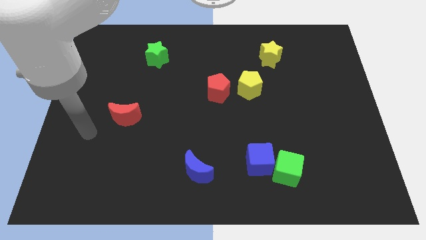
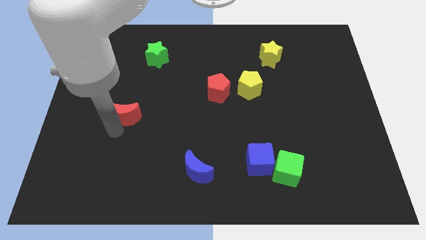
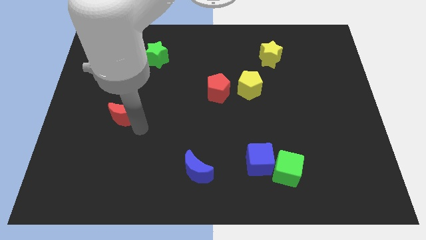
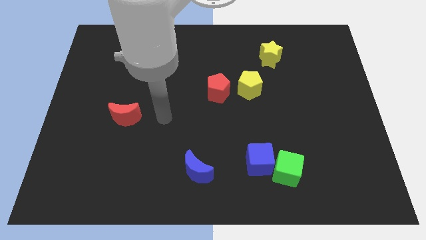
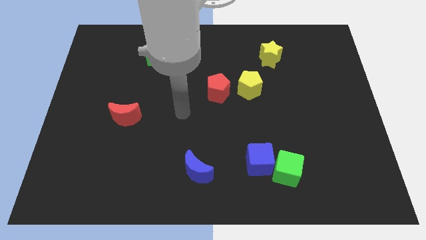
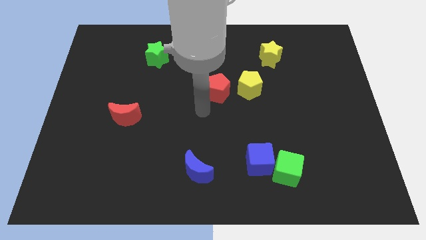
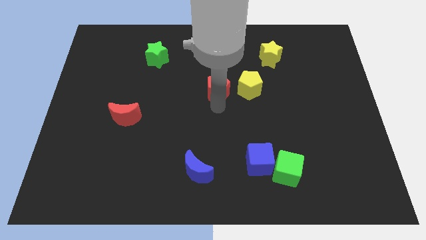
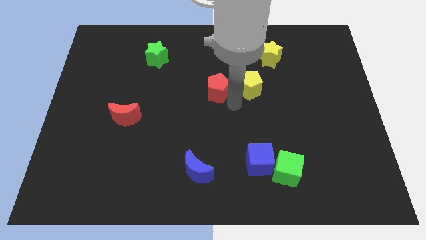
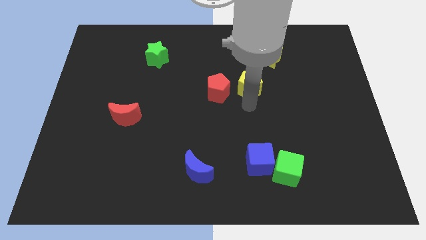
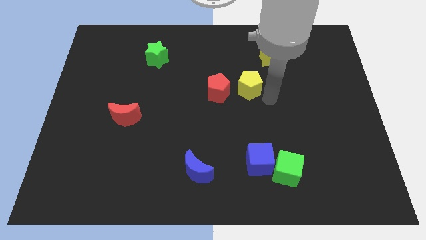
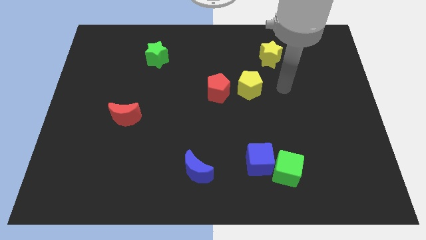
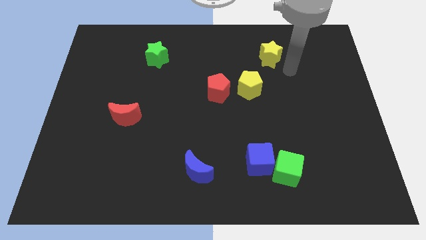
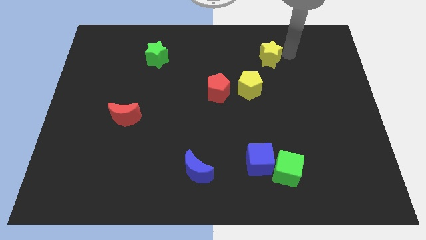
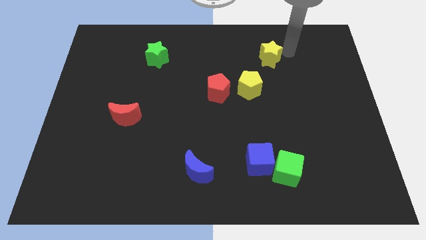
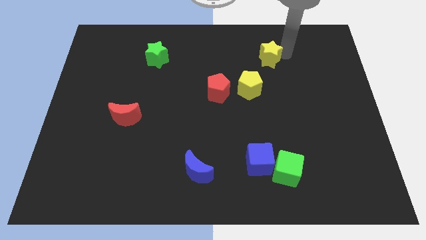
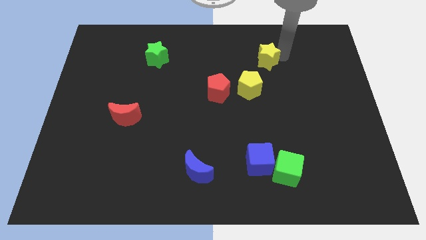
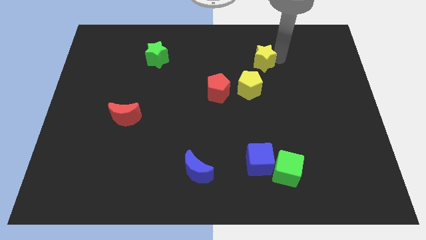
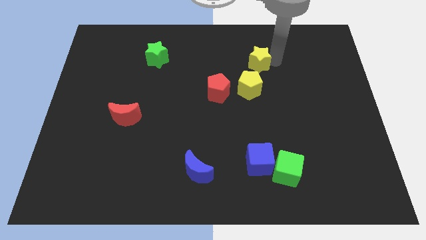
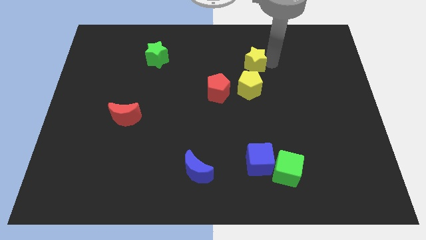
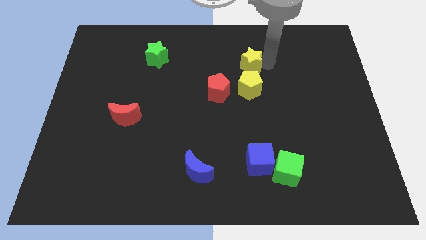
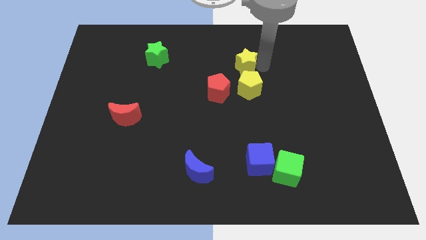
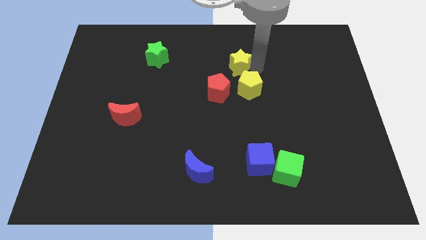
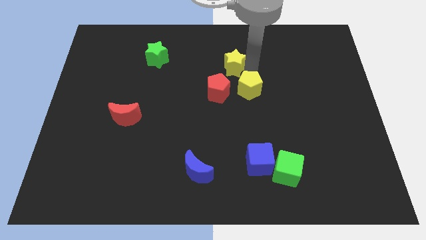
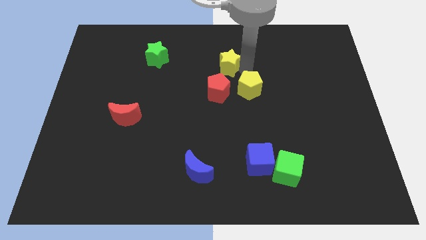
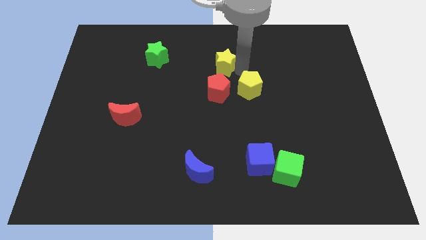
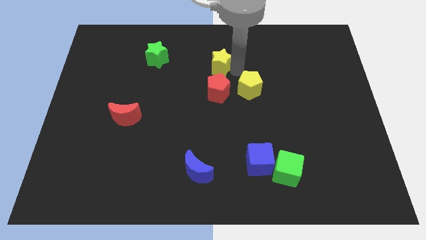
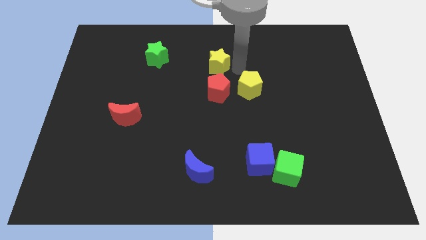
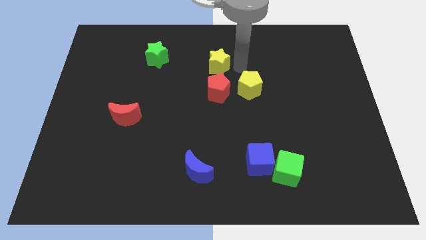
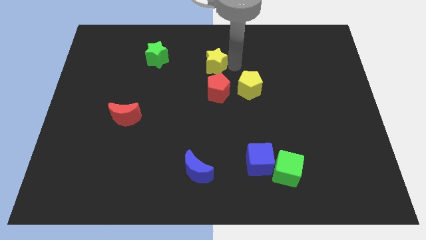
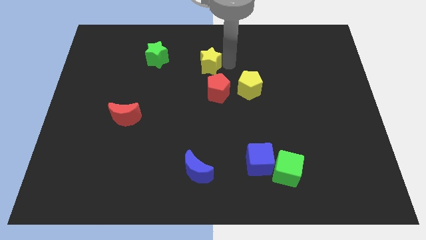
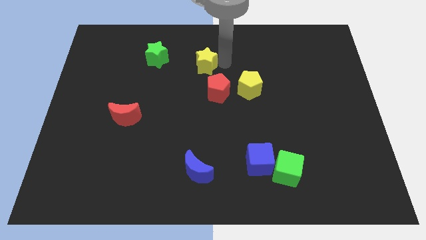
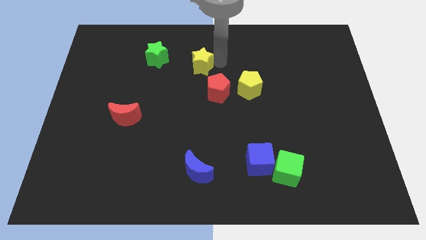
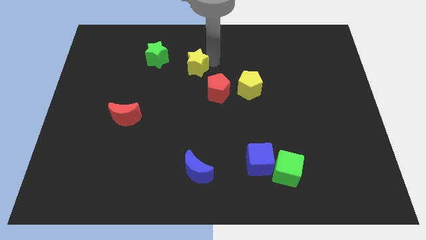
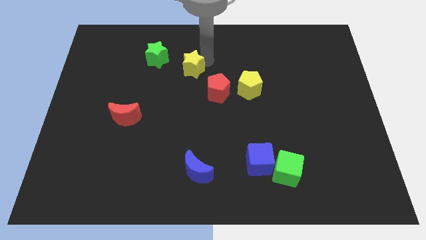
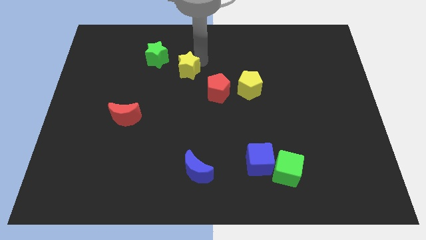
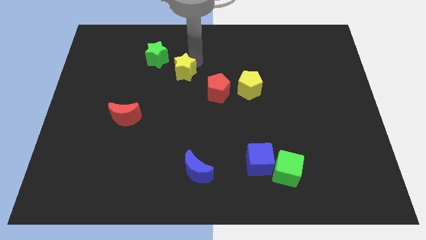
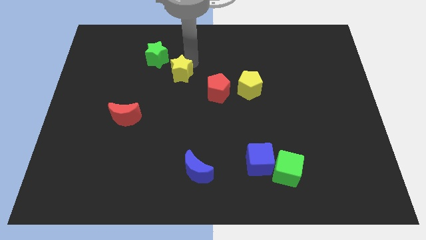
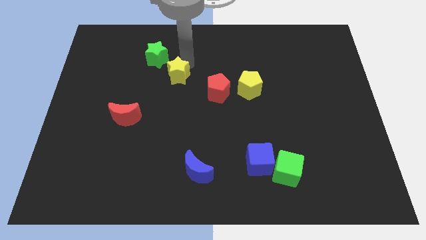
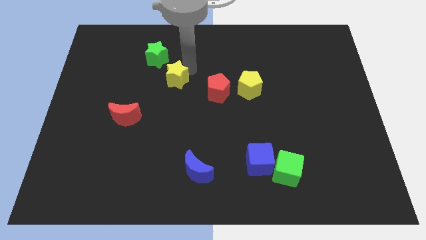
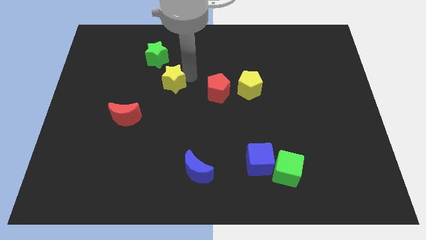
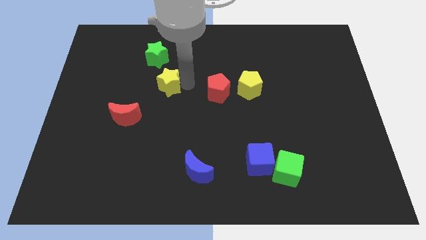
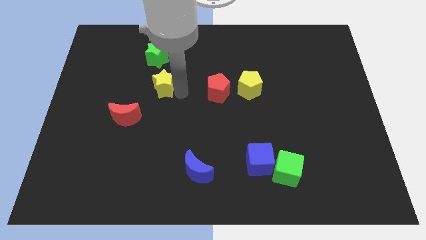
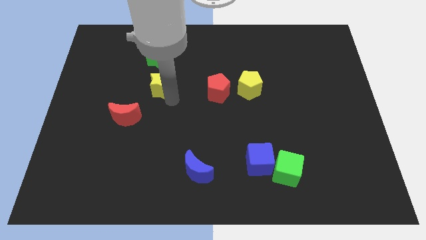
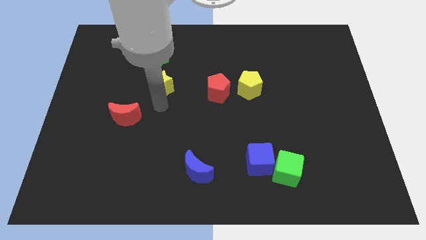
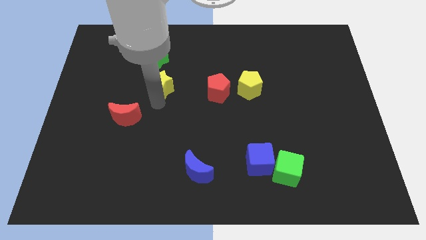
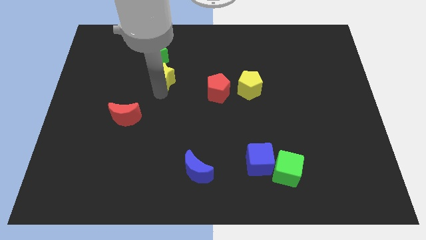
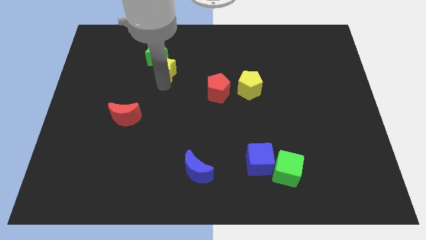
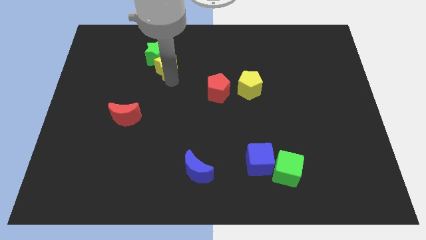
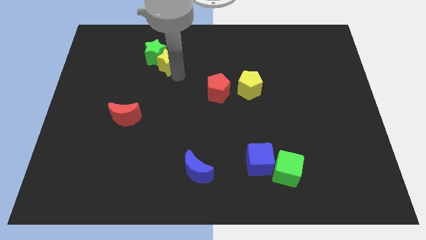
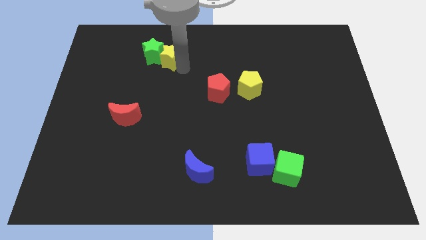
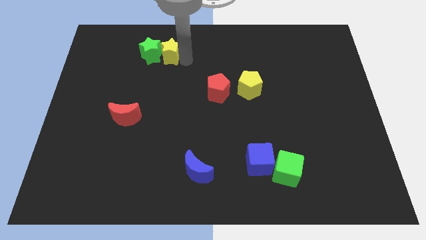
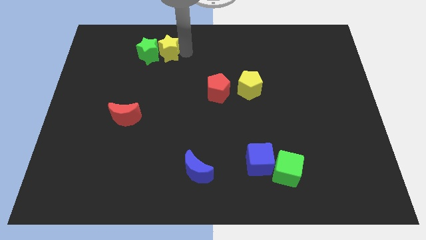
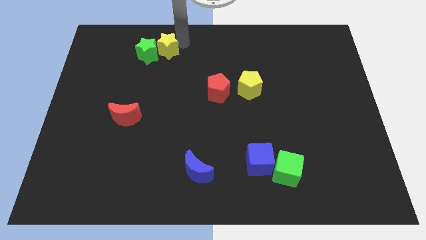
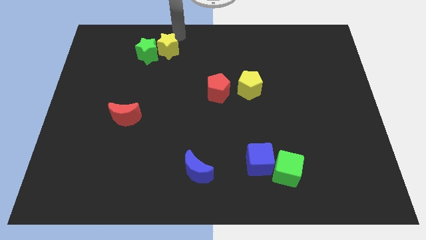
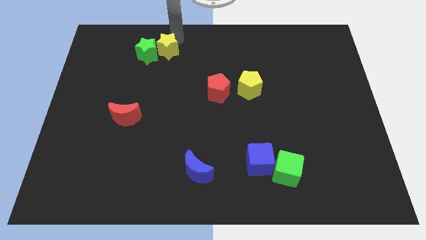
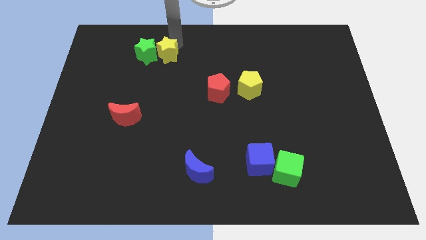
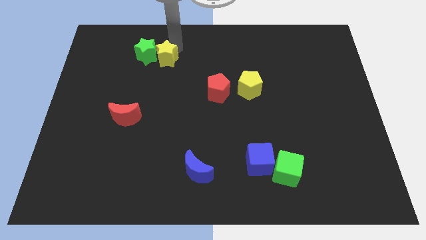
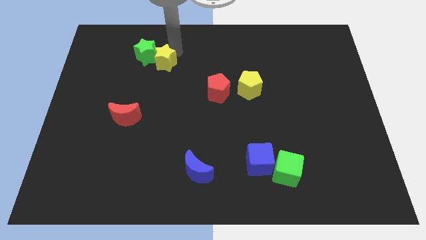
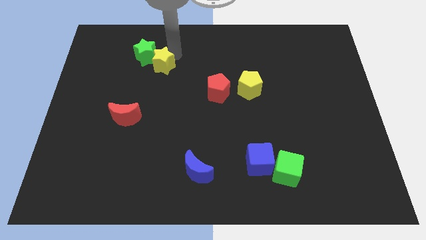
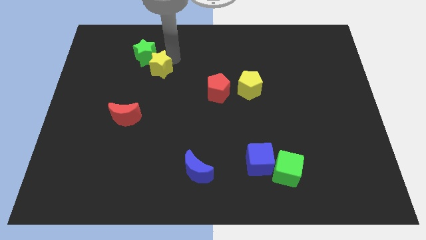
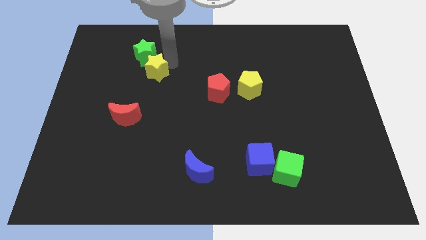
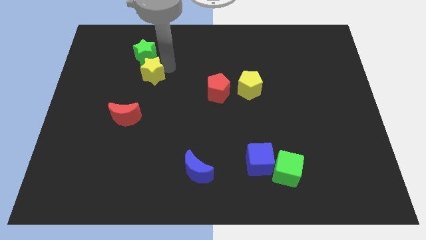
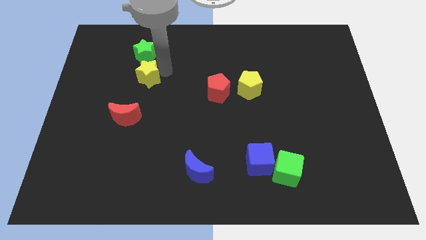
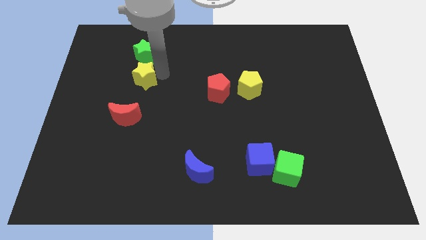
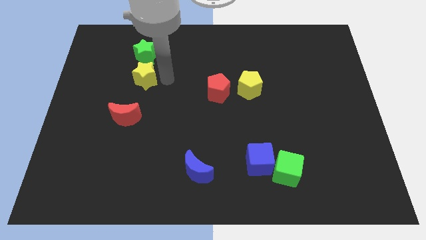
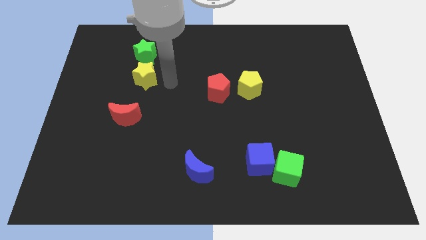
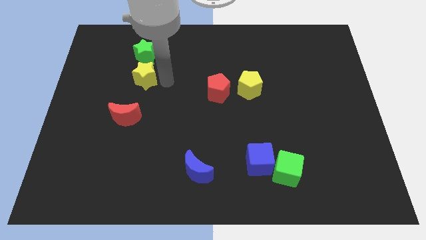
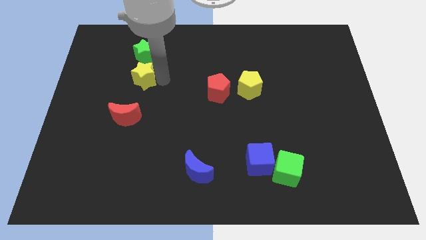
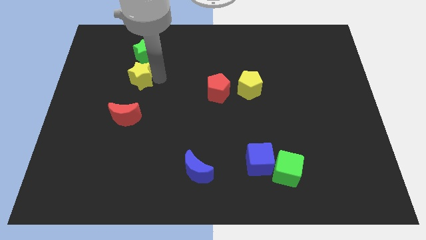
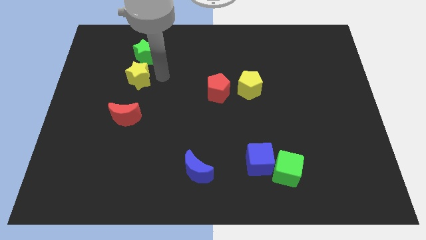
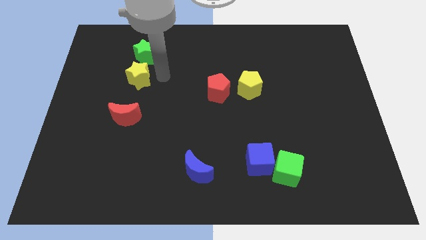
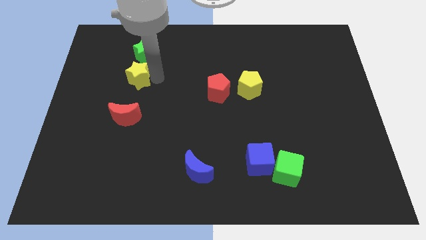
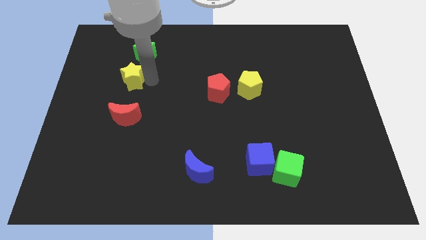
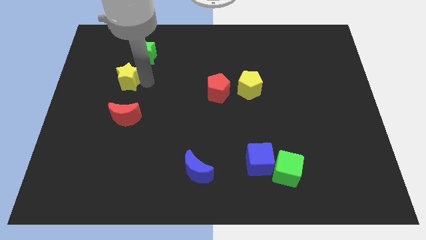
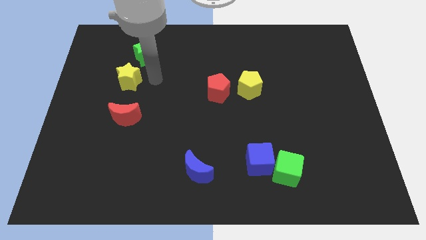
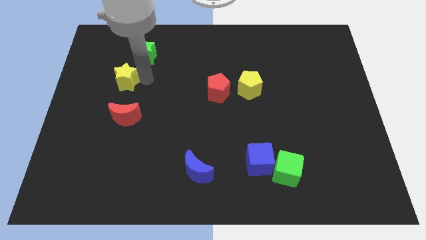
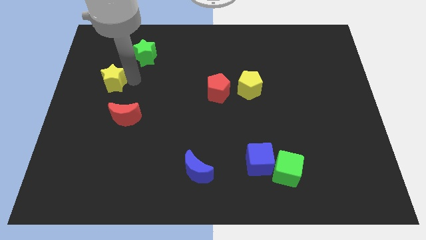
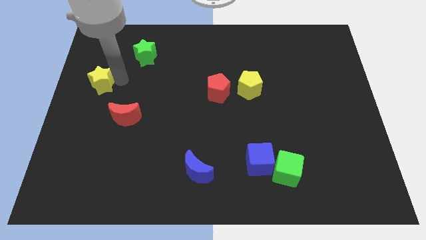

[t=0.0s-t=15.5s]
move the yellow star to the center left
